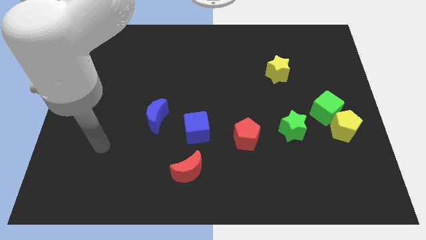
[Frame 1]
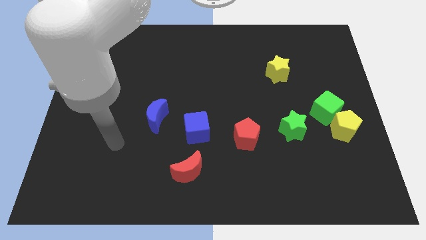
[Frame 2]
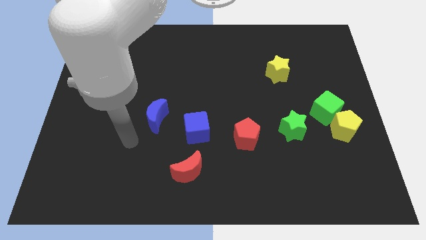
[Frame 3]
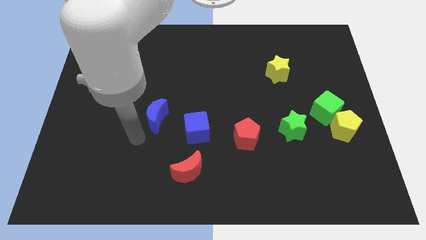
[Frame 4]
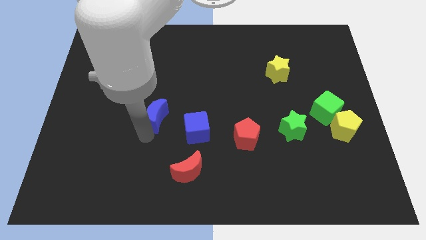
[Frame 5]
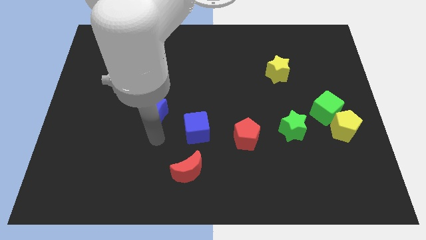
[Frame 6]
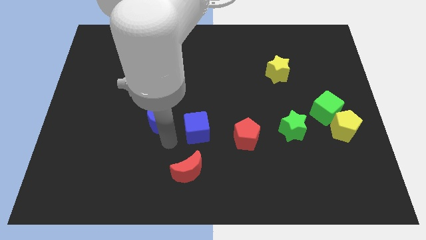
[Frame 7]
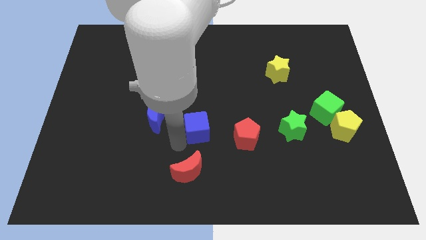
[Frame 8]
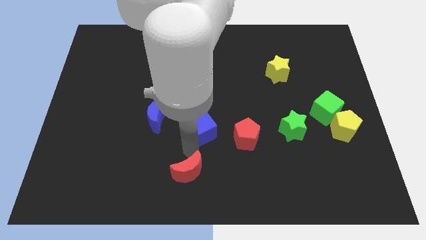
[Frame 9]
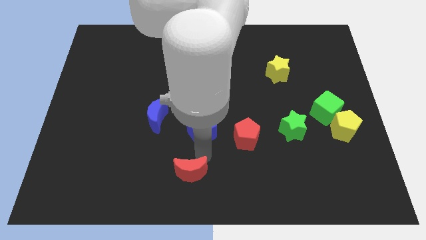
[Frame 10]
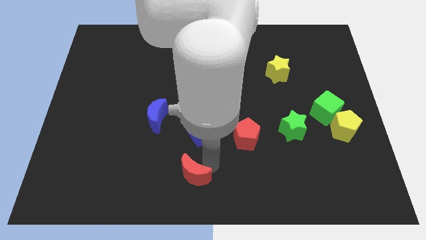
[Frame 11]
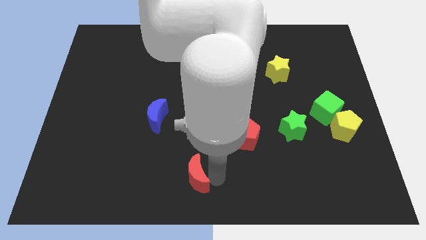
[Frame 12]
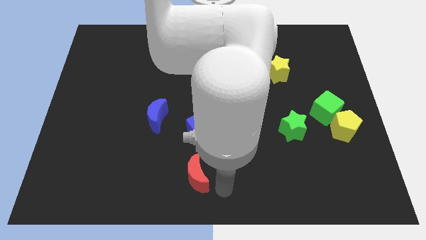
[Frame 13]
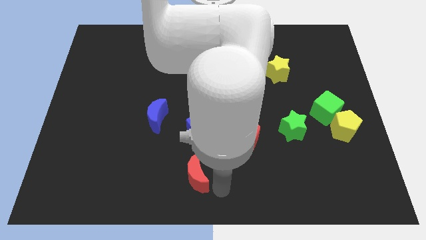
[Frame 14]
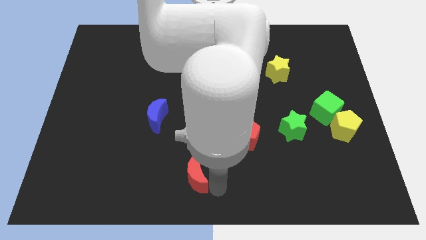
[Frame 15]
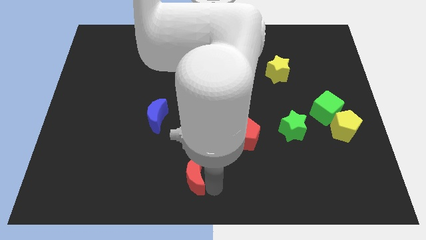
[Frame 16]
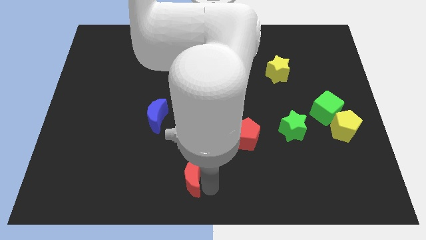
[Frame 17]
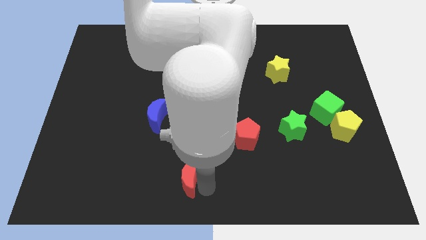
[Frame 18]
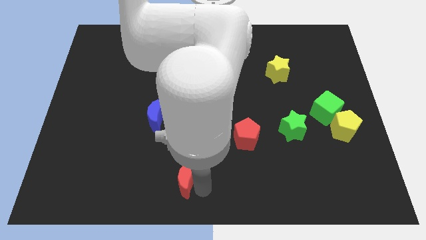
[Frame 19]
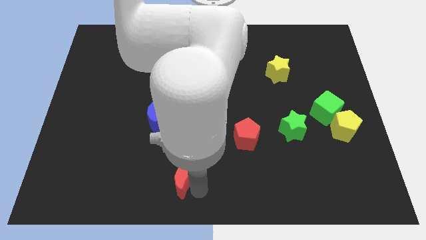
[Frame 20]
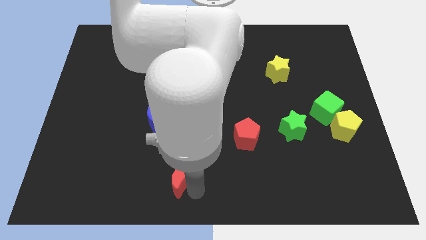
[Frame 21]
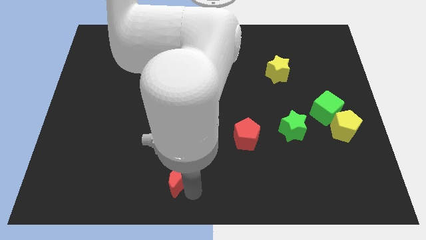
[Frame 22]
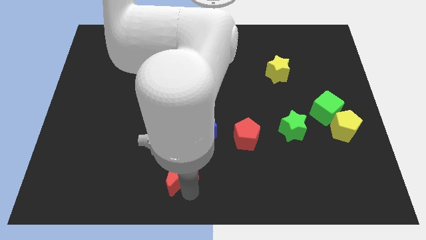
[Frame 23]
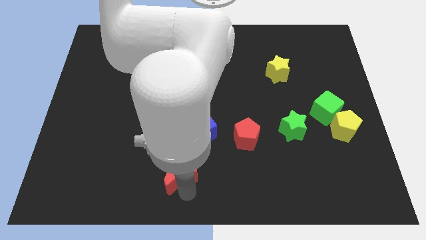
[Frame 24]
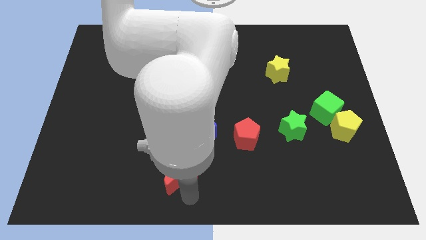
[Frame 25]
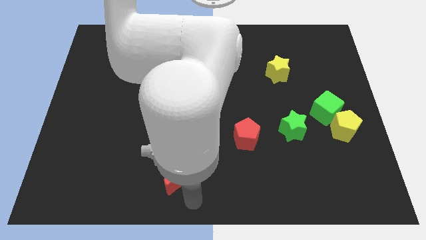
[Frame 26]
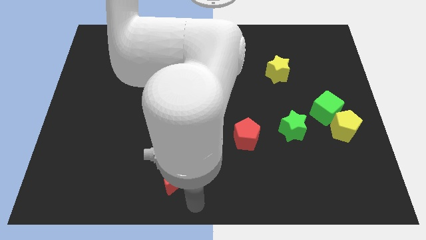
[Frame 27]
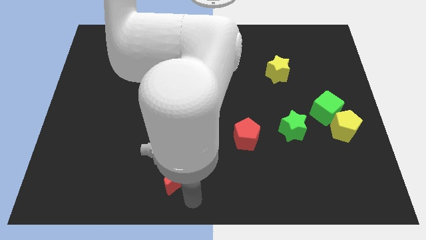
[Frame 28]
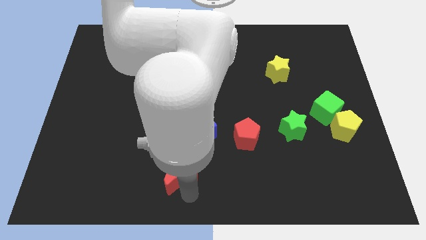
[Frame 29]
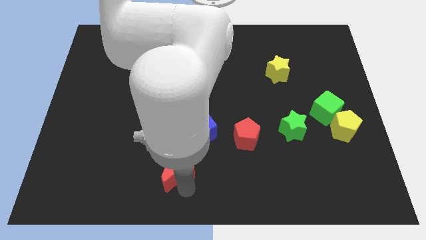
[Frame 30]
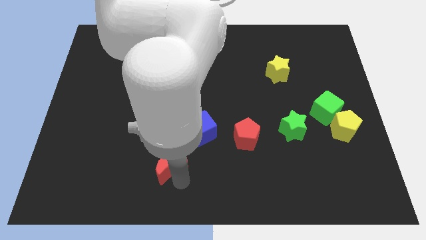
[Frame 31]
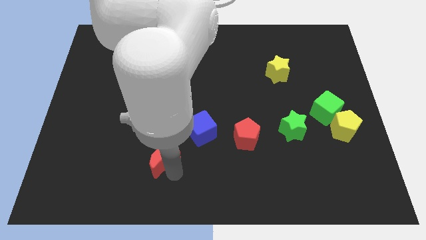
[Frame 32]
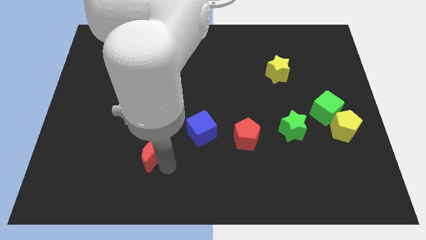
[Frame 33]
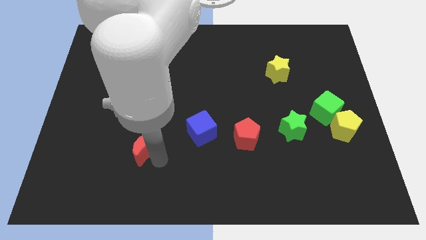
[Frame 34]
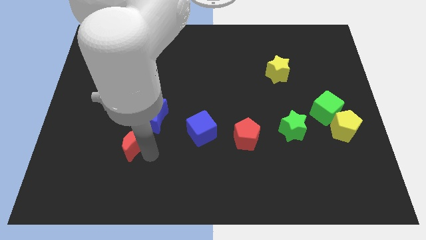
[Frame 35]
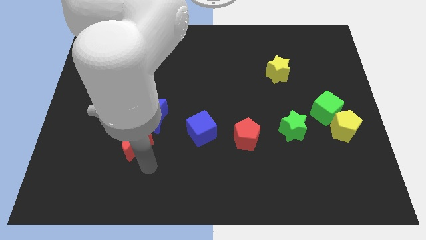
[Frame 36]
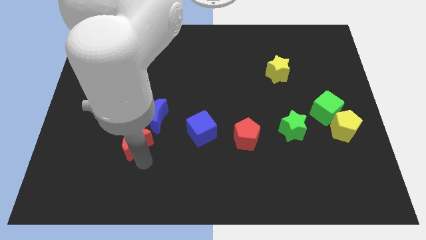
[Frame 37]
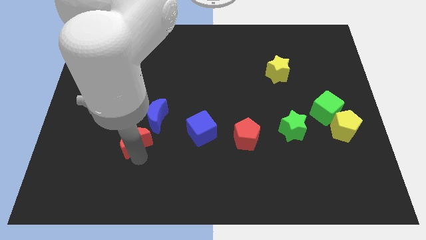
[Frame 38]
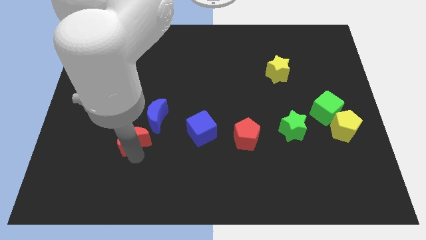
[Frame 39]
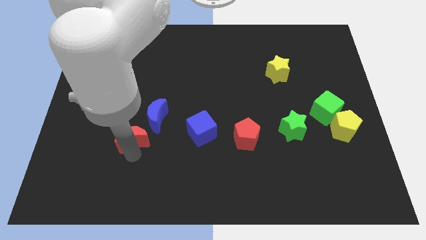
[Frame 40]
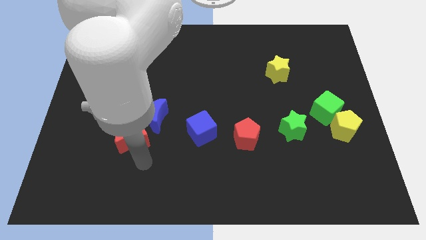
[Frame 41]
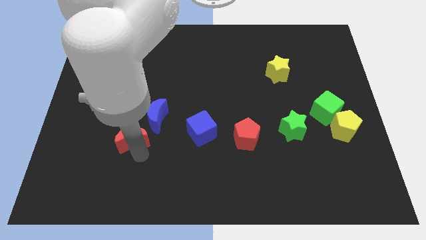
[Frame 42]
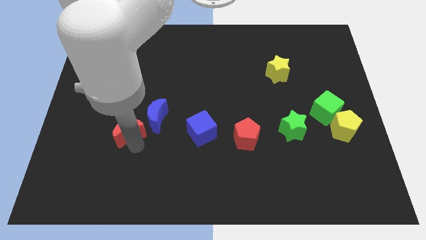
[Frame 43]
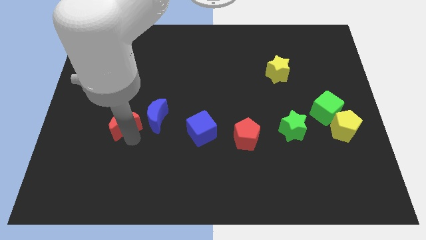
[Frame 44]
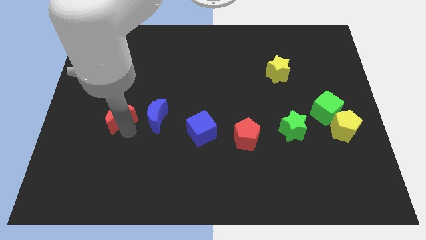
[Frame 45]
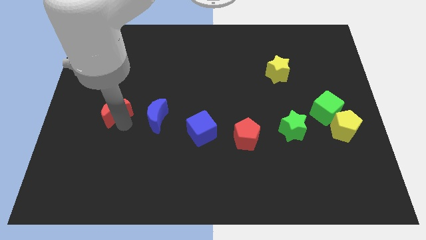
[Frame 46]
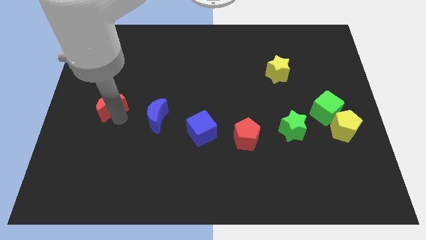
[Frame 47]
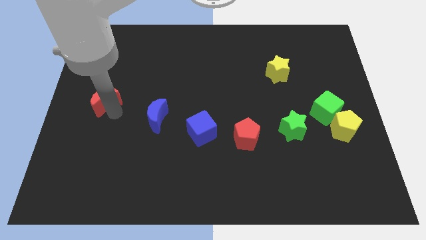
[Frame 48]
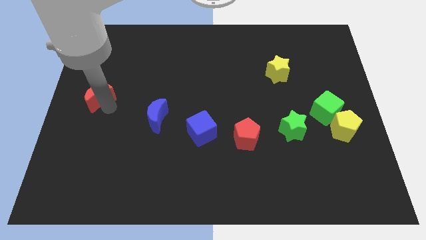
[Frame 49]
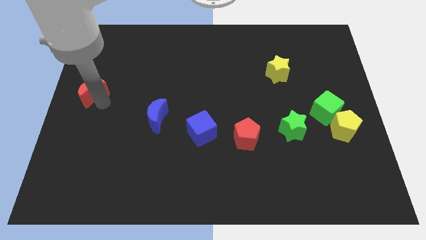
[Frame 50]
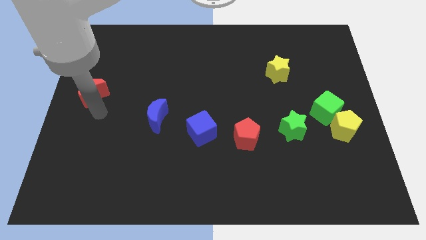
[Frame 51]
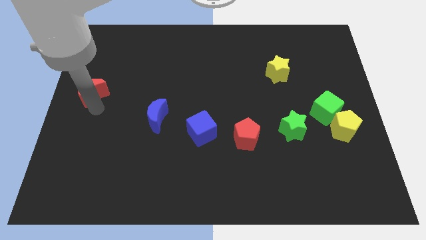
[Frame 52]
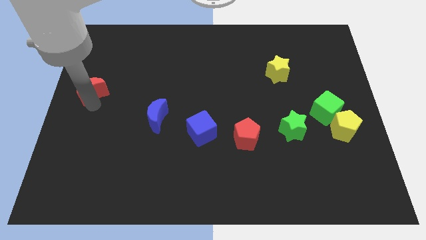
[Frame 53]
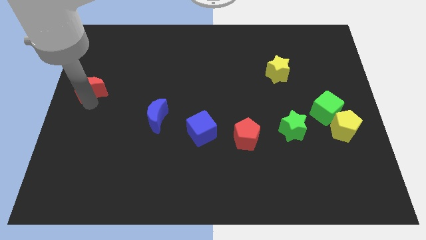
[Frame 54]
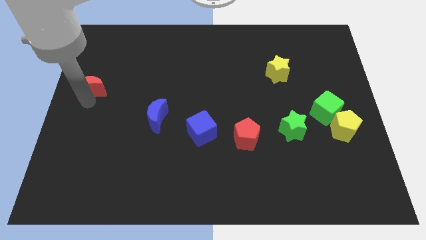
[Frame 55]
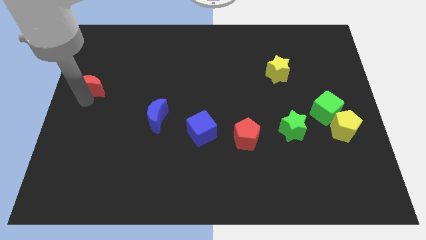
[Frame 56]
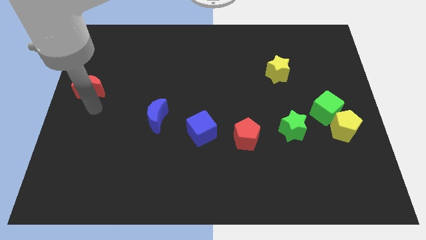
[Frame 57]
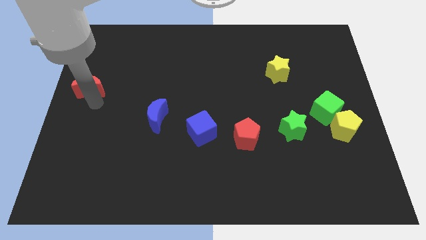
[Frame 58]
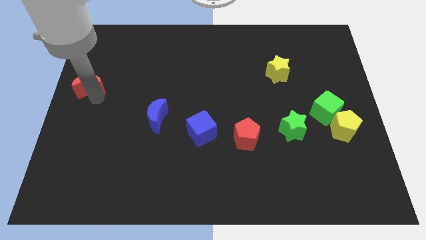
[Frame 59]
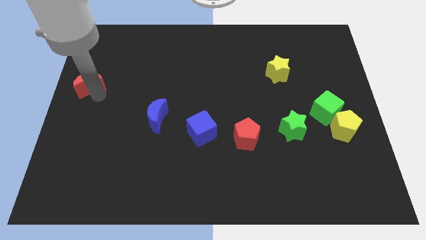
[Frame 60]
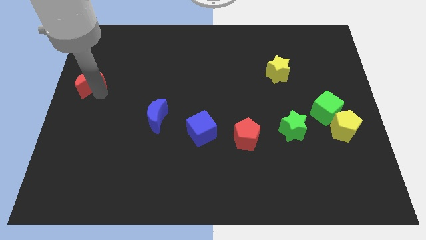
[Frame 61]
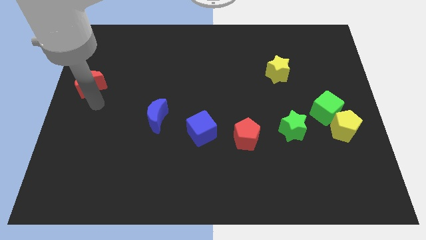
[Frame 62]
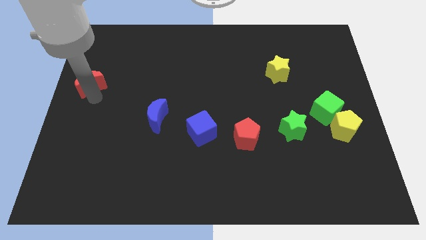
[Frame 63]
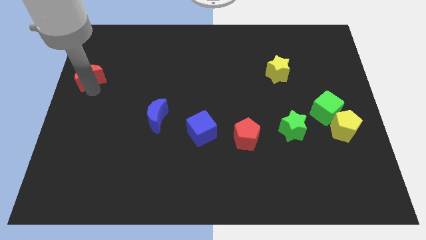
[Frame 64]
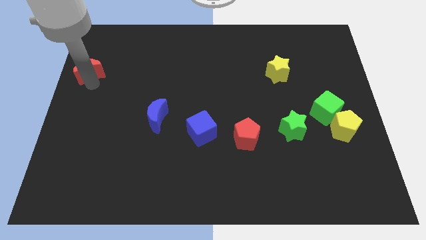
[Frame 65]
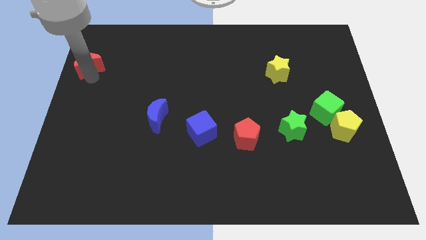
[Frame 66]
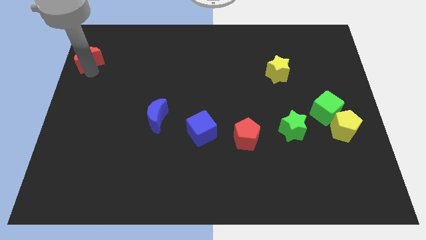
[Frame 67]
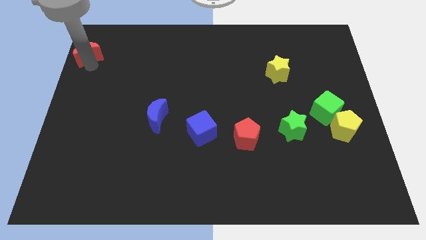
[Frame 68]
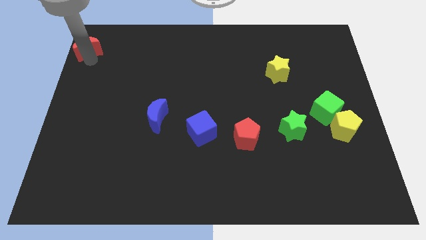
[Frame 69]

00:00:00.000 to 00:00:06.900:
move the red moon to the top left
